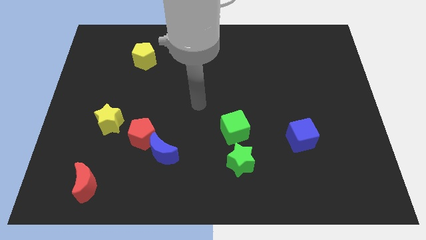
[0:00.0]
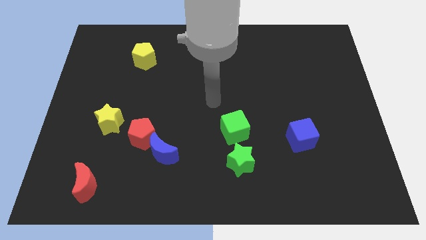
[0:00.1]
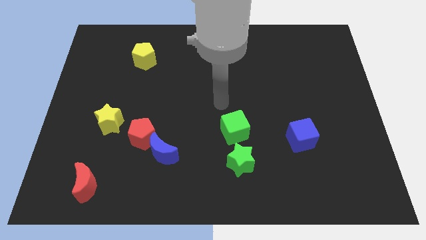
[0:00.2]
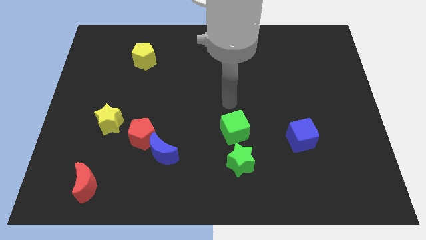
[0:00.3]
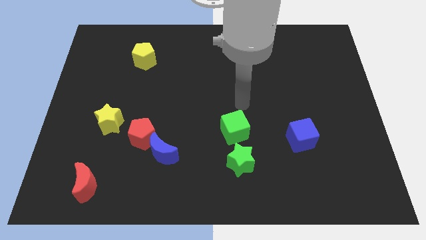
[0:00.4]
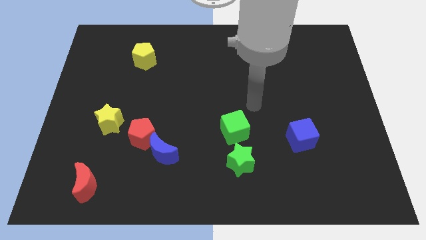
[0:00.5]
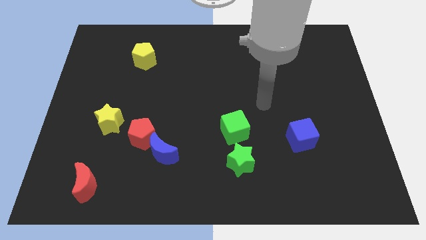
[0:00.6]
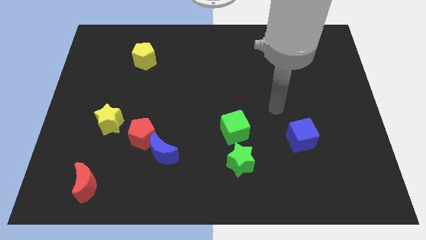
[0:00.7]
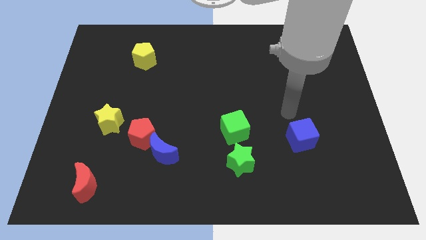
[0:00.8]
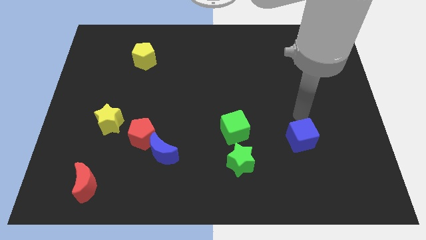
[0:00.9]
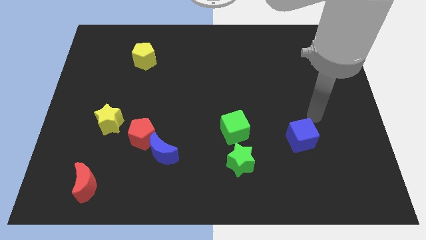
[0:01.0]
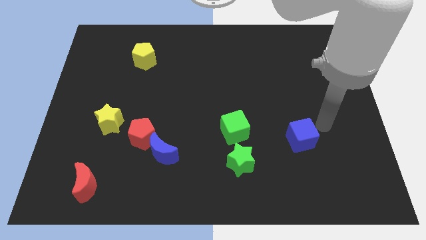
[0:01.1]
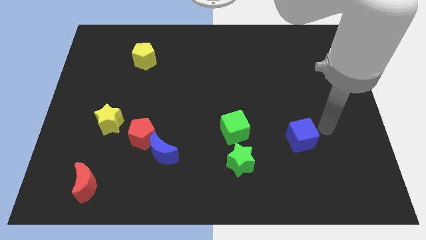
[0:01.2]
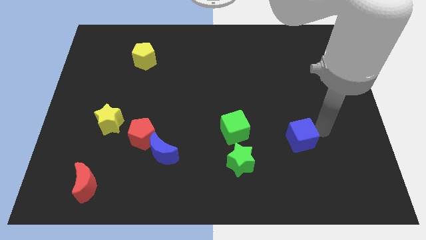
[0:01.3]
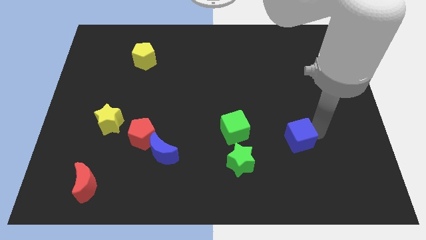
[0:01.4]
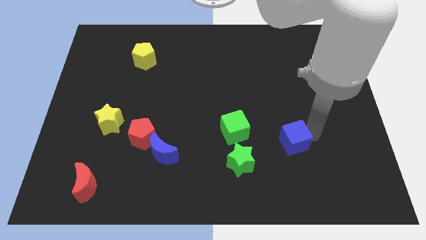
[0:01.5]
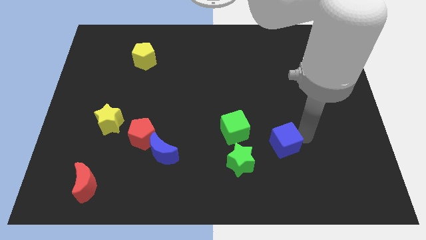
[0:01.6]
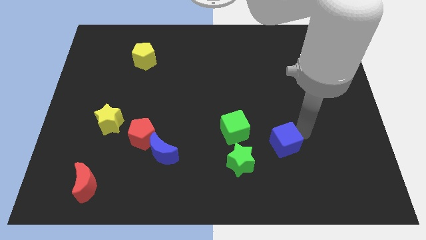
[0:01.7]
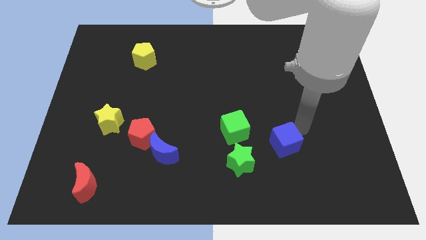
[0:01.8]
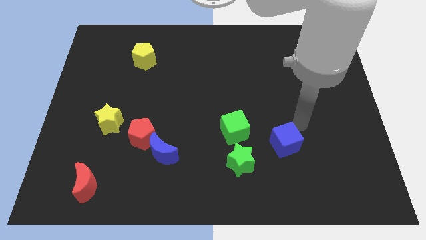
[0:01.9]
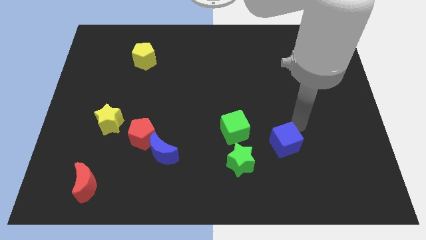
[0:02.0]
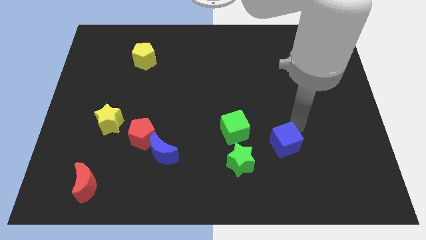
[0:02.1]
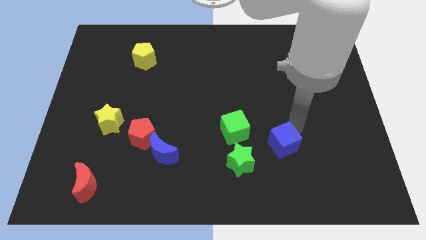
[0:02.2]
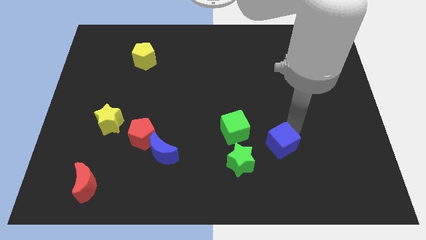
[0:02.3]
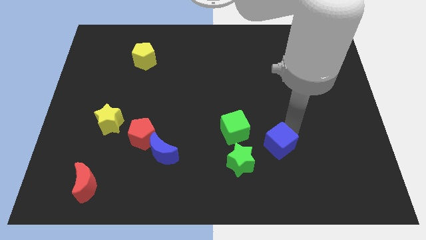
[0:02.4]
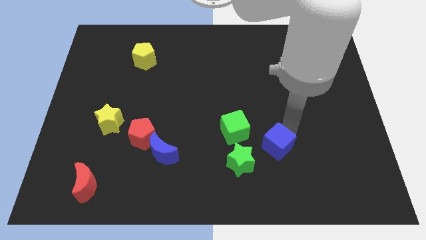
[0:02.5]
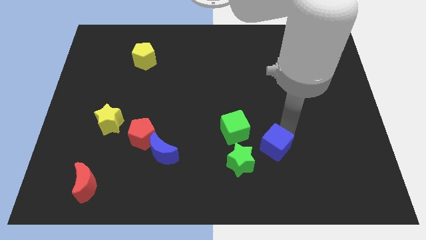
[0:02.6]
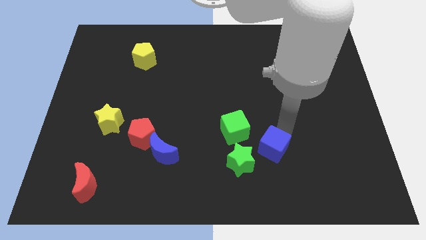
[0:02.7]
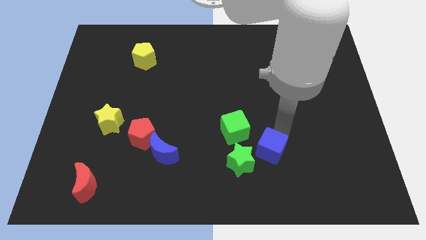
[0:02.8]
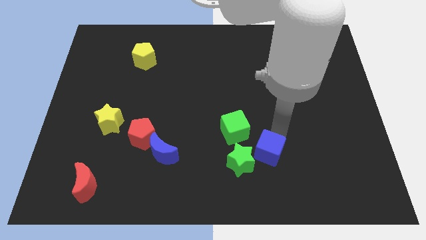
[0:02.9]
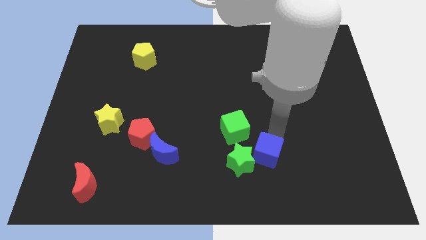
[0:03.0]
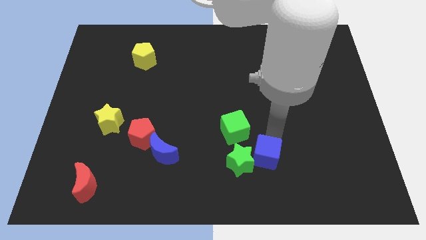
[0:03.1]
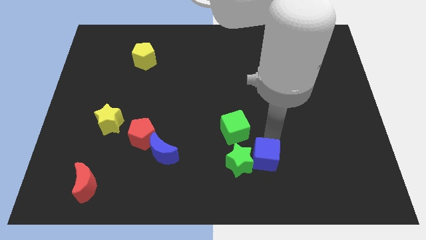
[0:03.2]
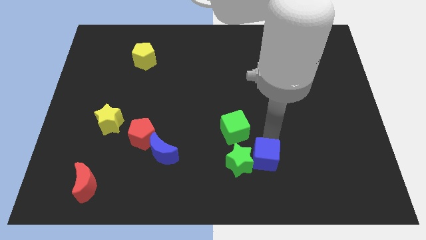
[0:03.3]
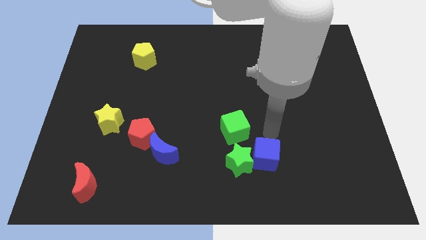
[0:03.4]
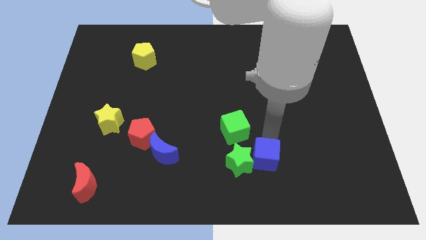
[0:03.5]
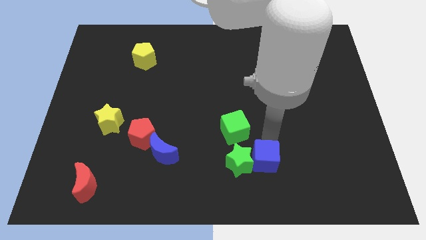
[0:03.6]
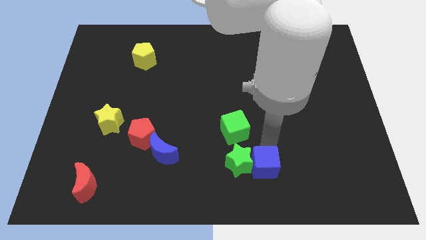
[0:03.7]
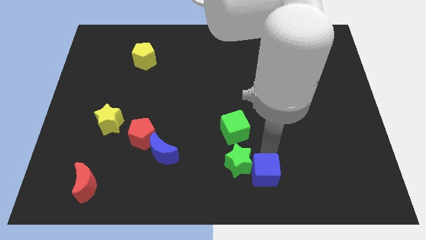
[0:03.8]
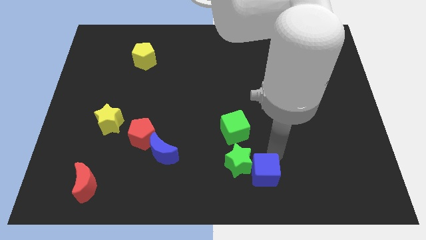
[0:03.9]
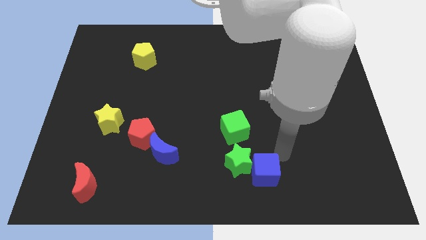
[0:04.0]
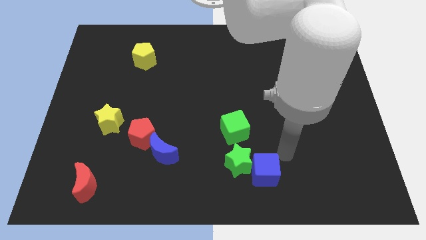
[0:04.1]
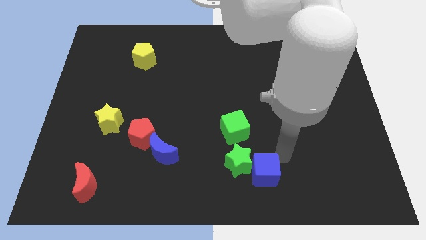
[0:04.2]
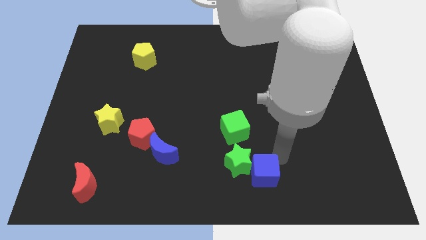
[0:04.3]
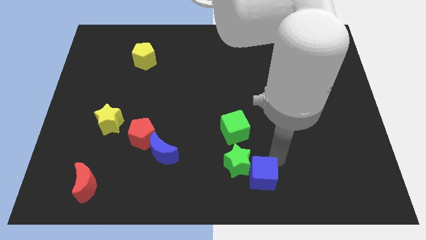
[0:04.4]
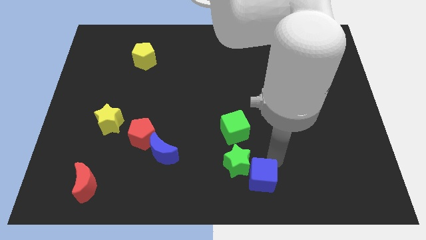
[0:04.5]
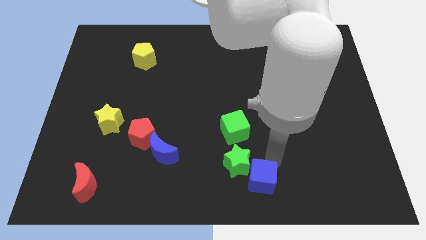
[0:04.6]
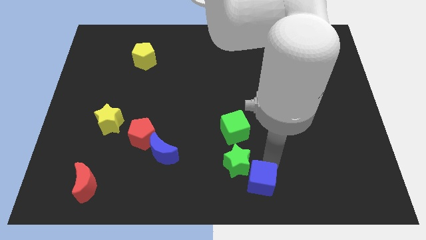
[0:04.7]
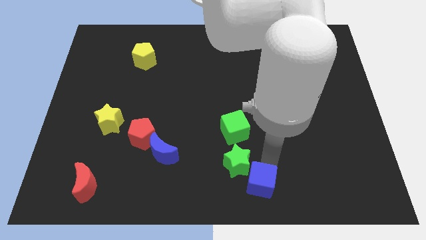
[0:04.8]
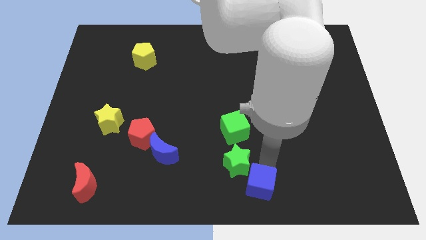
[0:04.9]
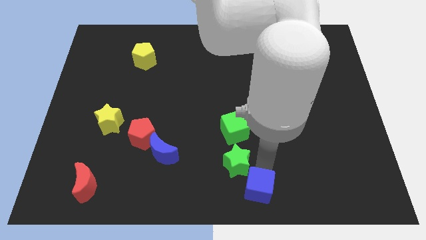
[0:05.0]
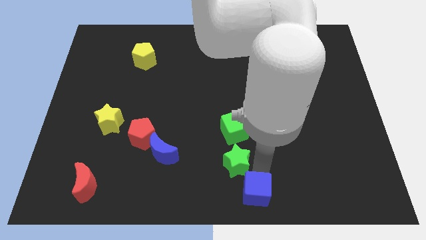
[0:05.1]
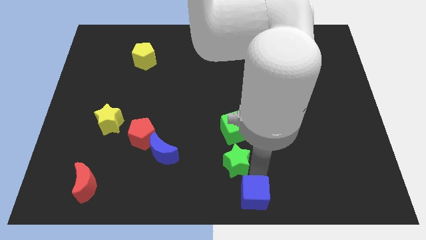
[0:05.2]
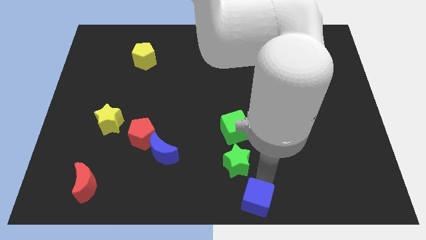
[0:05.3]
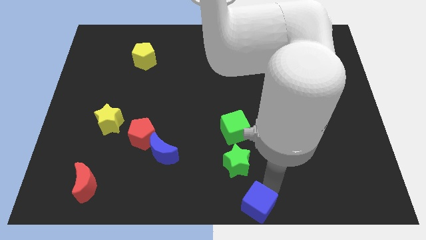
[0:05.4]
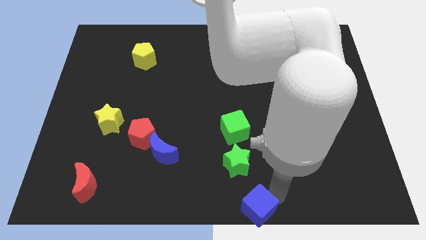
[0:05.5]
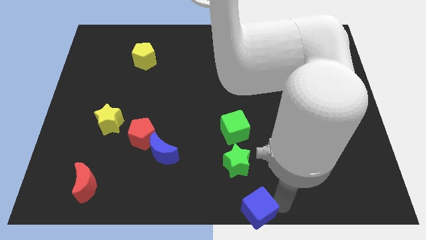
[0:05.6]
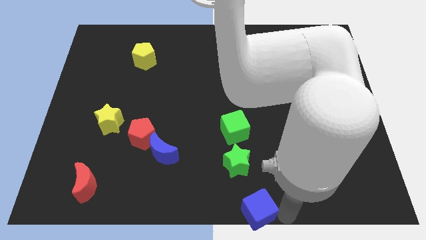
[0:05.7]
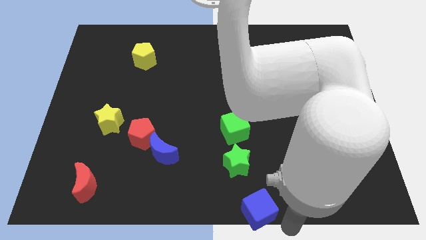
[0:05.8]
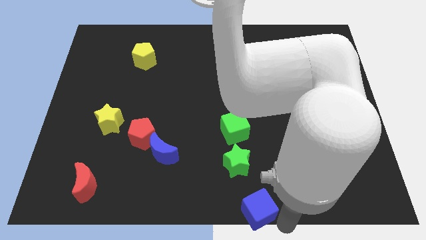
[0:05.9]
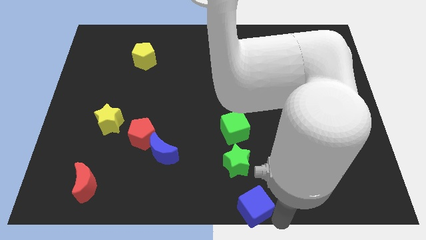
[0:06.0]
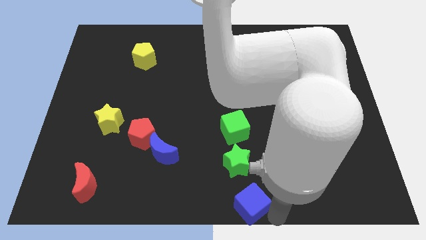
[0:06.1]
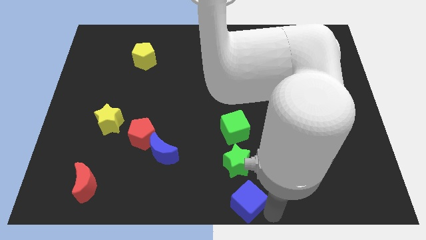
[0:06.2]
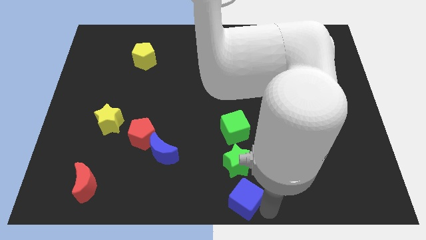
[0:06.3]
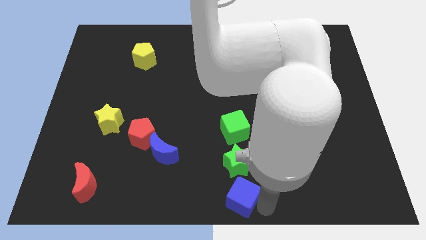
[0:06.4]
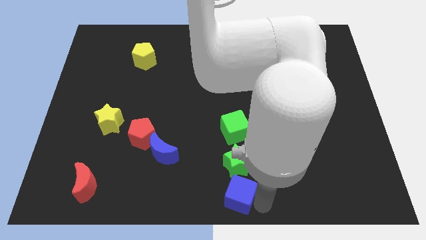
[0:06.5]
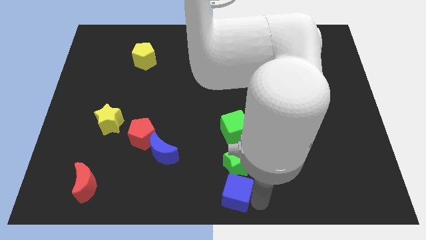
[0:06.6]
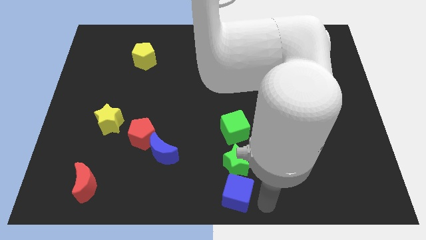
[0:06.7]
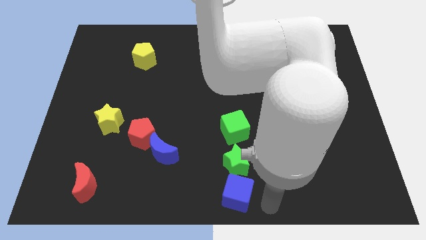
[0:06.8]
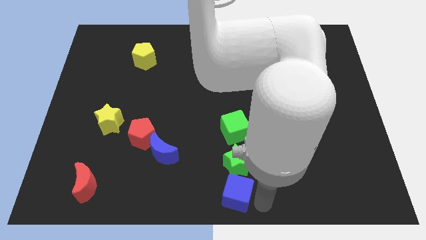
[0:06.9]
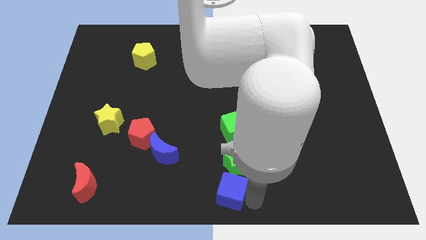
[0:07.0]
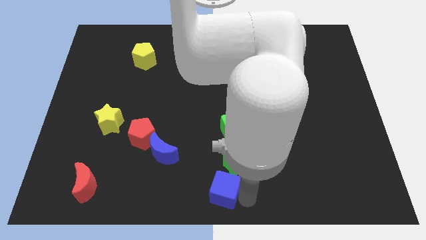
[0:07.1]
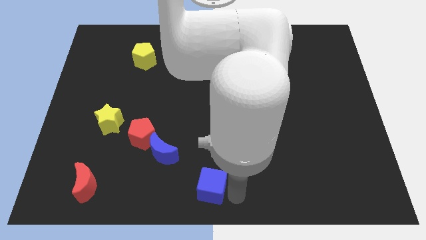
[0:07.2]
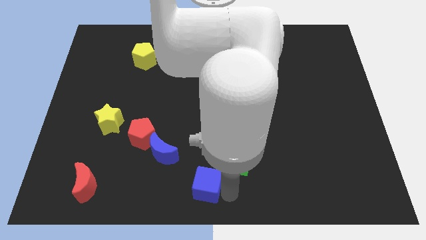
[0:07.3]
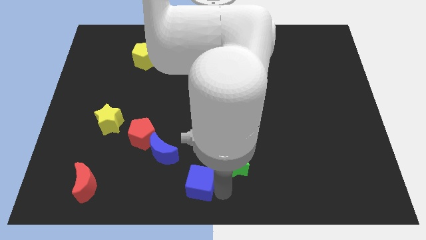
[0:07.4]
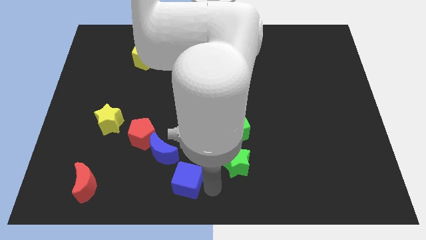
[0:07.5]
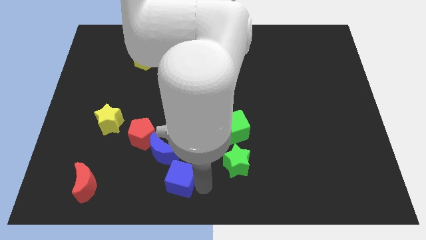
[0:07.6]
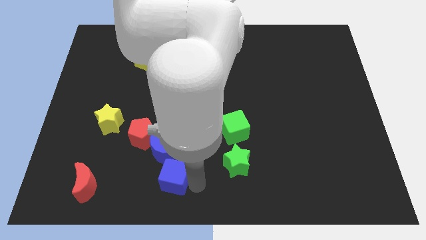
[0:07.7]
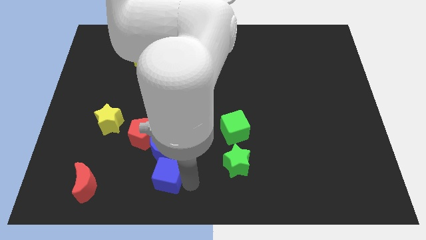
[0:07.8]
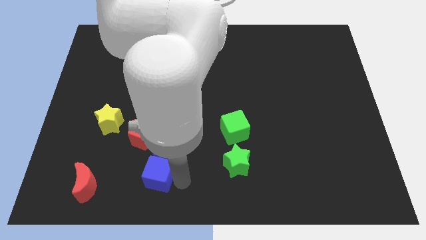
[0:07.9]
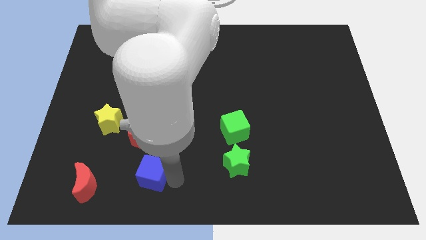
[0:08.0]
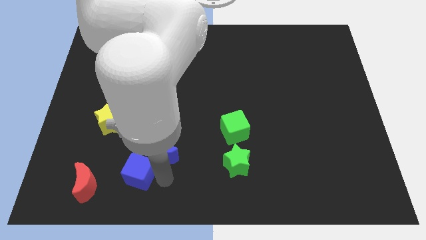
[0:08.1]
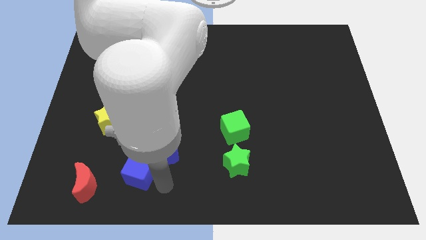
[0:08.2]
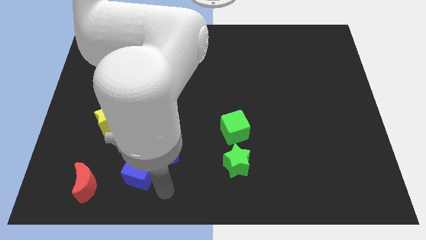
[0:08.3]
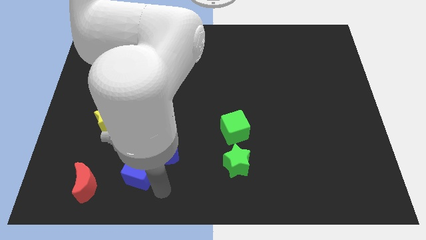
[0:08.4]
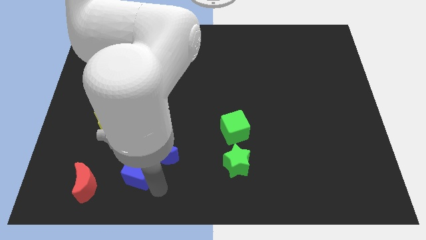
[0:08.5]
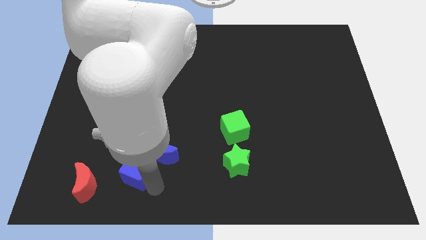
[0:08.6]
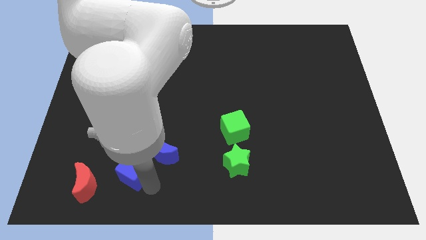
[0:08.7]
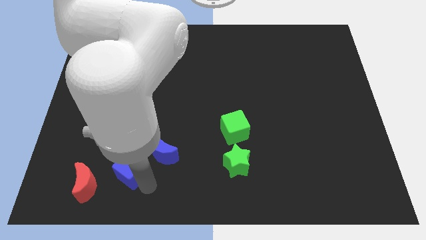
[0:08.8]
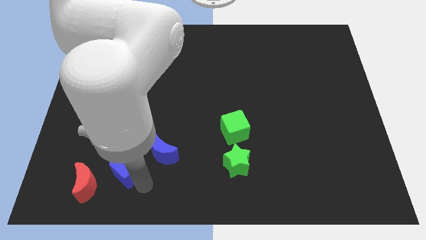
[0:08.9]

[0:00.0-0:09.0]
move the blue cube diagonally down and to the left of the red pentagon
